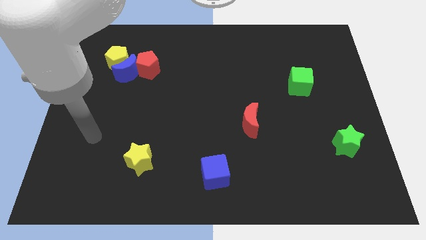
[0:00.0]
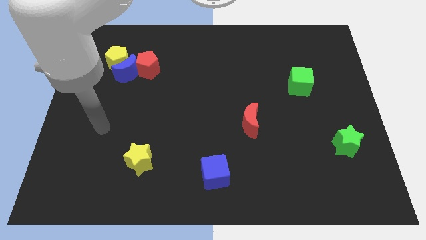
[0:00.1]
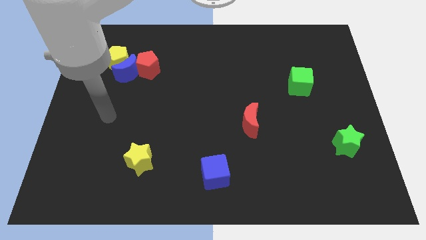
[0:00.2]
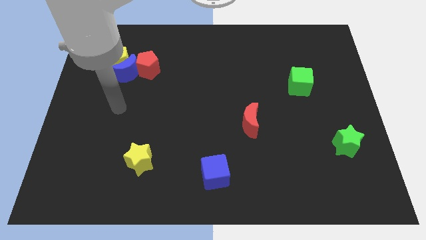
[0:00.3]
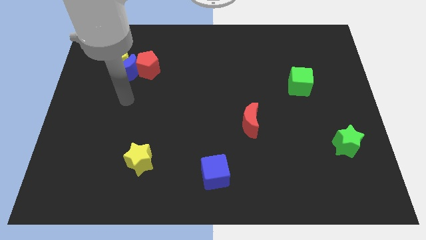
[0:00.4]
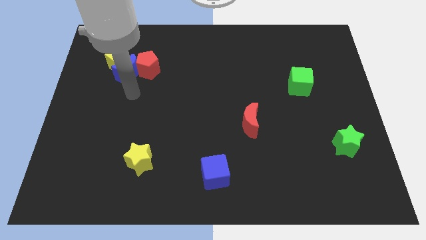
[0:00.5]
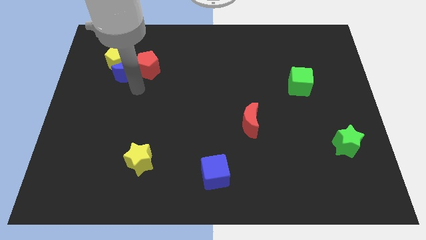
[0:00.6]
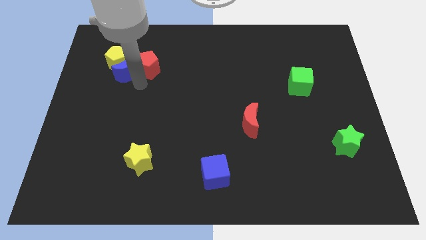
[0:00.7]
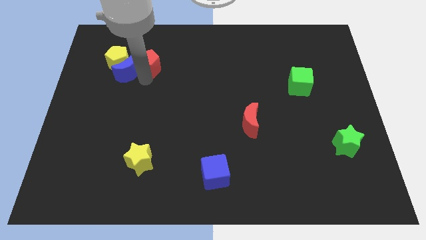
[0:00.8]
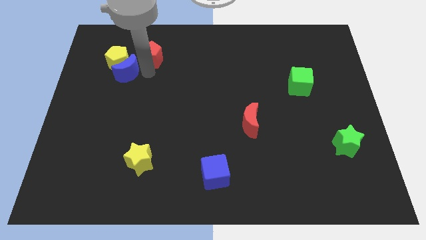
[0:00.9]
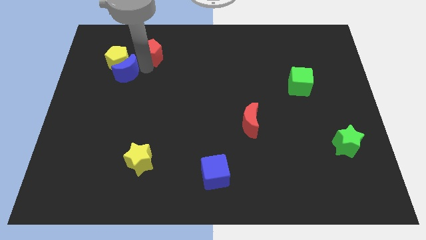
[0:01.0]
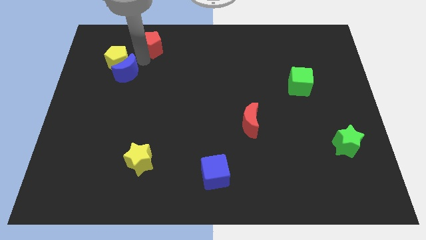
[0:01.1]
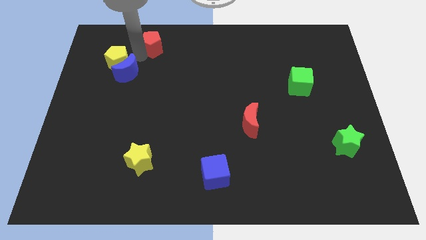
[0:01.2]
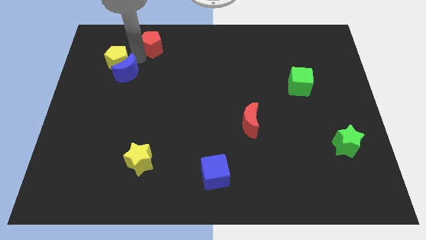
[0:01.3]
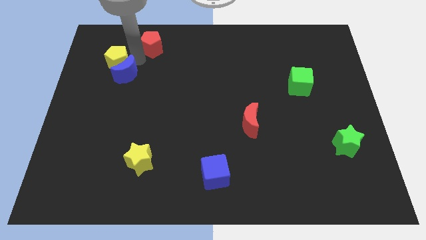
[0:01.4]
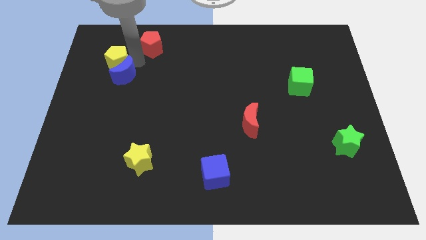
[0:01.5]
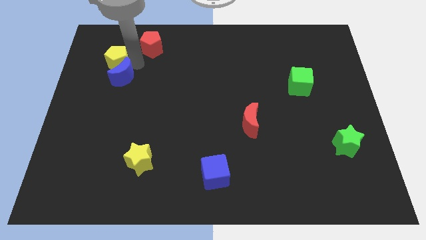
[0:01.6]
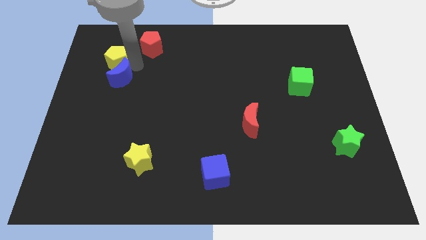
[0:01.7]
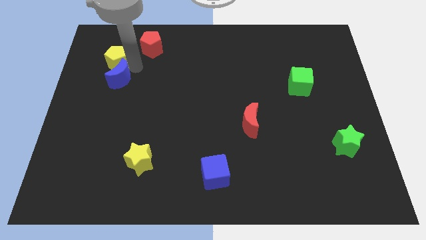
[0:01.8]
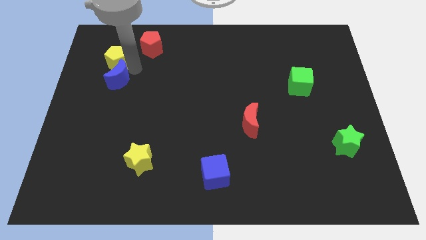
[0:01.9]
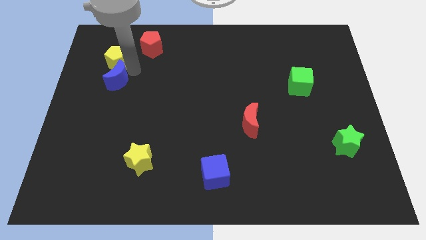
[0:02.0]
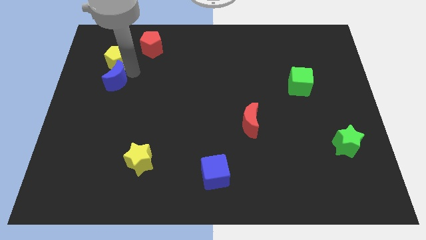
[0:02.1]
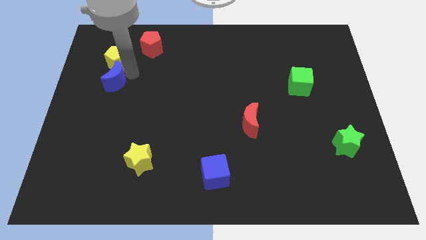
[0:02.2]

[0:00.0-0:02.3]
pull the blue moon apart from the yellow pentagon and red pentagon

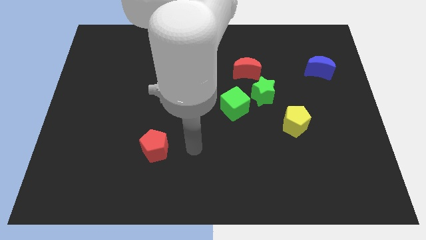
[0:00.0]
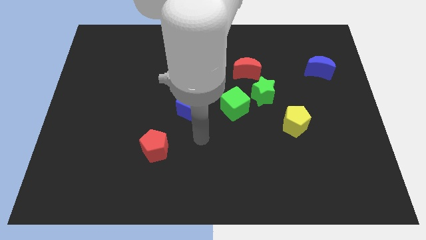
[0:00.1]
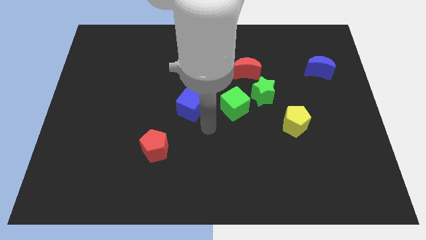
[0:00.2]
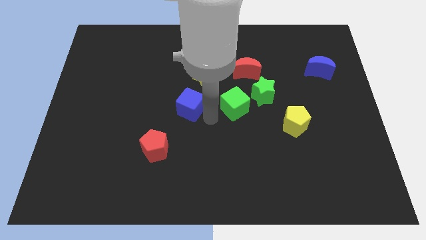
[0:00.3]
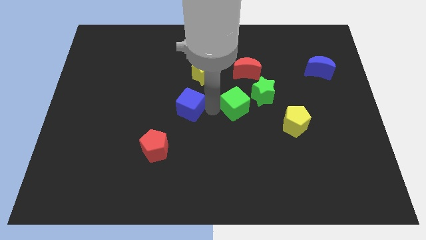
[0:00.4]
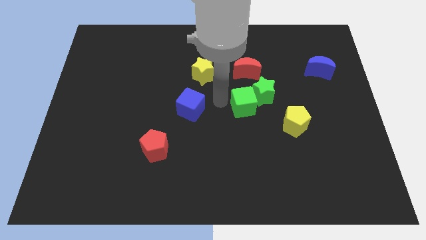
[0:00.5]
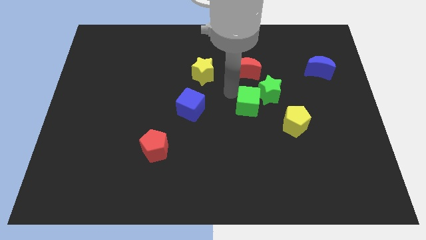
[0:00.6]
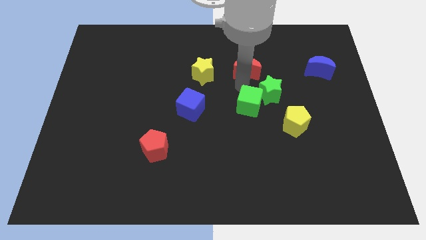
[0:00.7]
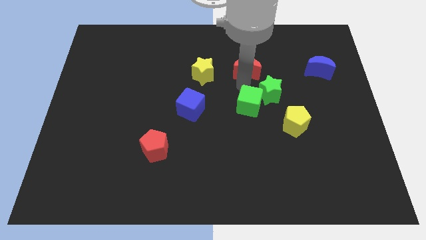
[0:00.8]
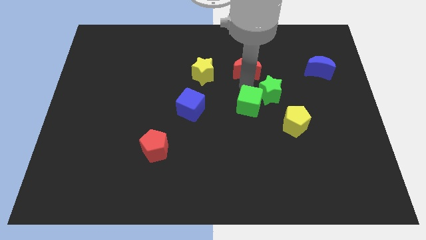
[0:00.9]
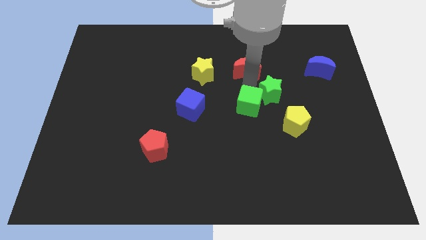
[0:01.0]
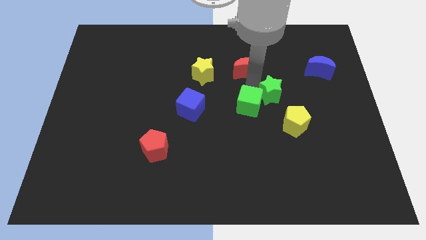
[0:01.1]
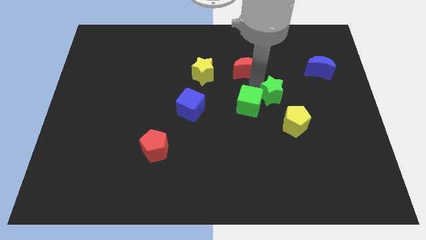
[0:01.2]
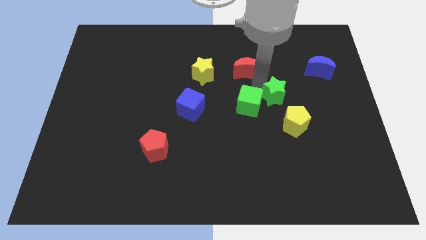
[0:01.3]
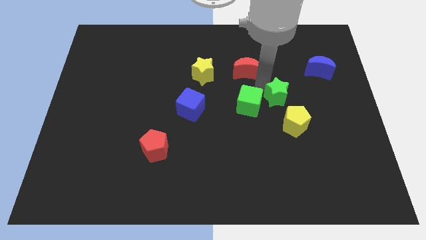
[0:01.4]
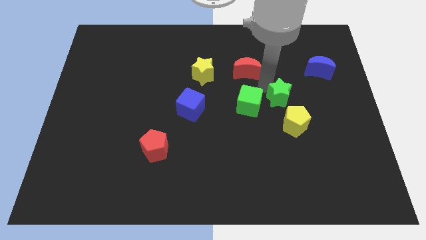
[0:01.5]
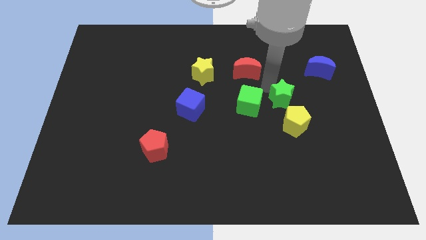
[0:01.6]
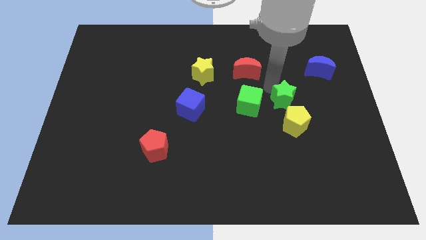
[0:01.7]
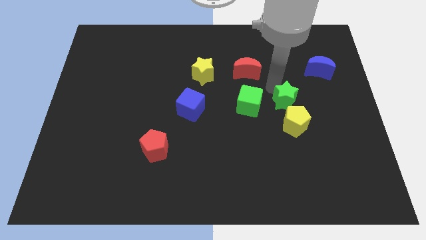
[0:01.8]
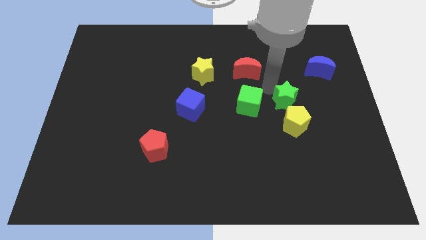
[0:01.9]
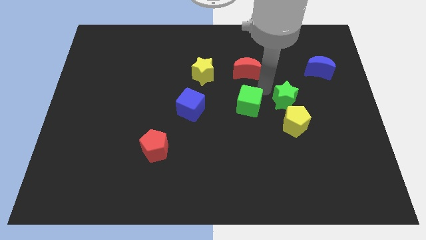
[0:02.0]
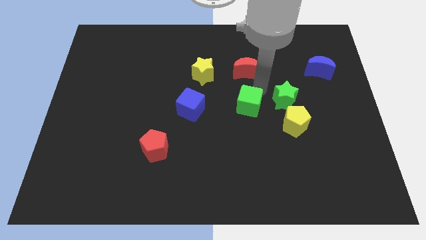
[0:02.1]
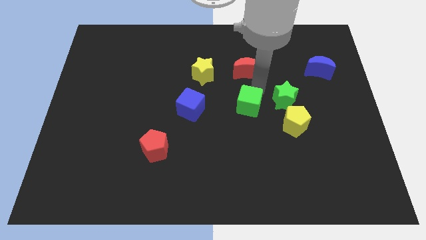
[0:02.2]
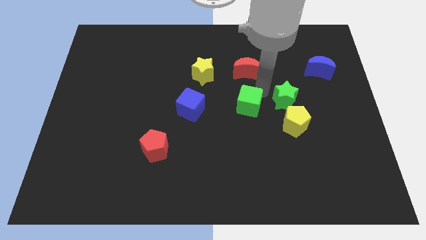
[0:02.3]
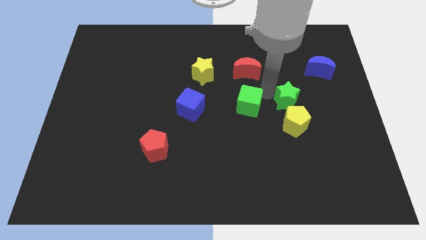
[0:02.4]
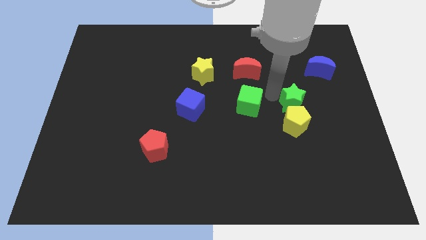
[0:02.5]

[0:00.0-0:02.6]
separate the green star from the green cube and red moon

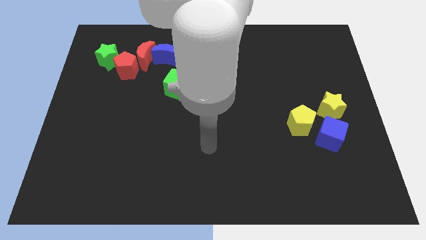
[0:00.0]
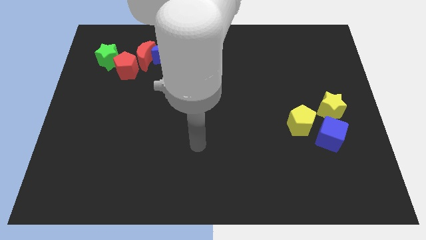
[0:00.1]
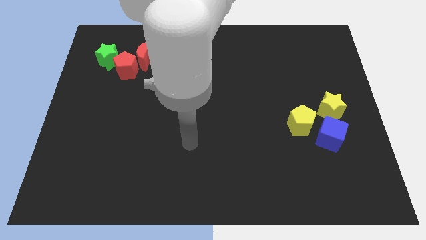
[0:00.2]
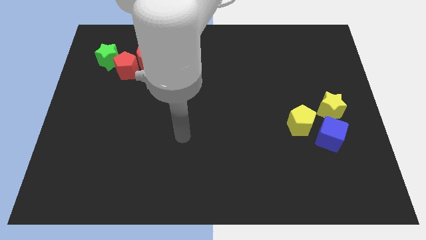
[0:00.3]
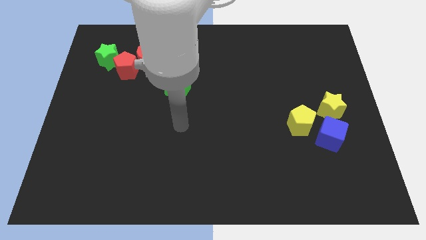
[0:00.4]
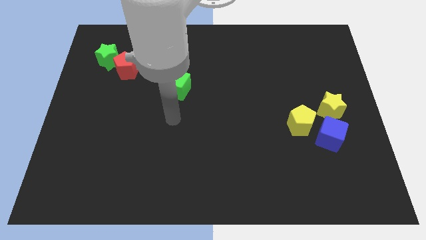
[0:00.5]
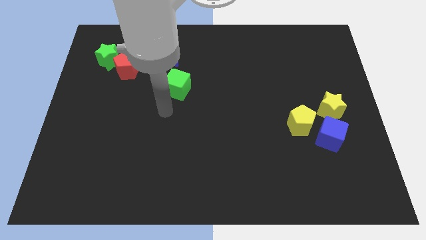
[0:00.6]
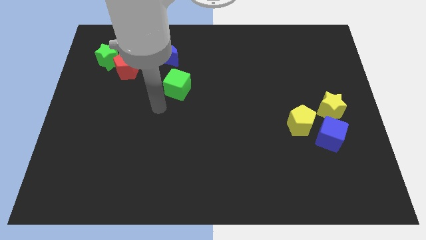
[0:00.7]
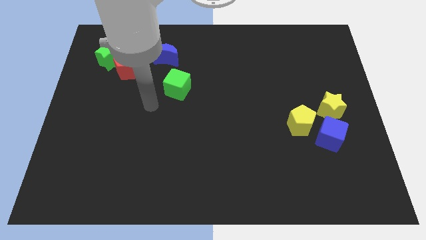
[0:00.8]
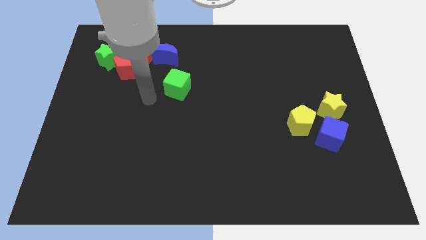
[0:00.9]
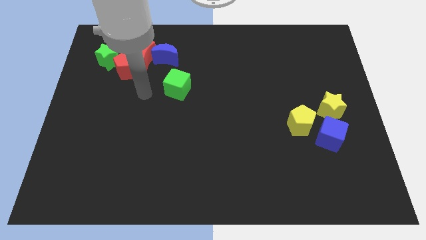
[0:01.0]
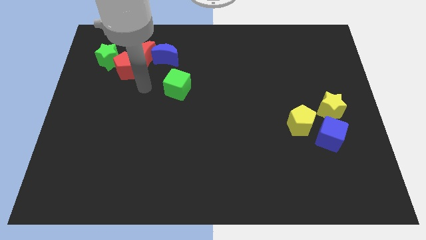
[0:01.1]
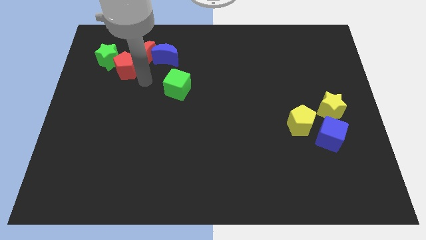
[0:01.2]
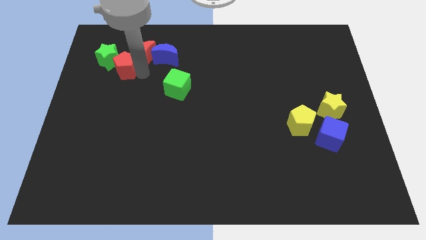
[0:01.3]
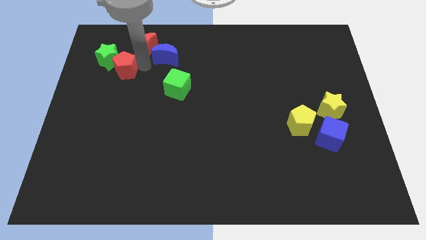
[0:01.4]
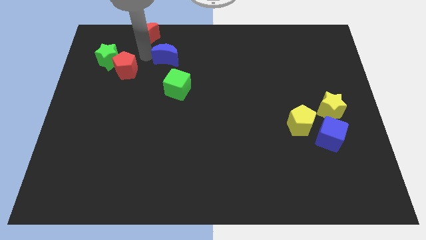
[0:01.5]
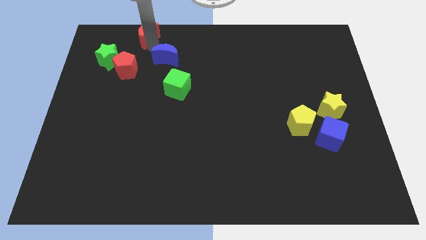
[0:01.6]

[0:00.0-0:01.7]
separate the blue moon from the red moon

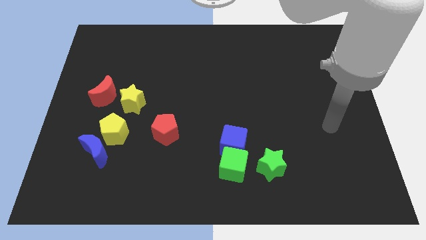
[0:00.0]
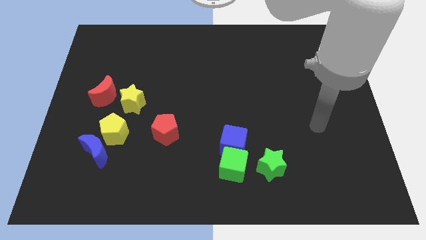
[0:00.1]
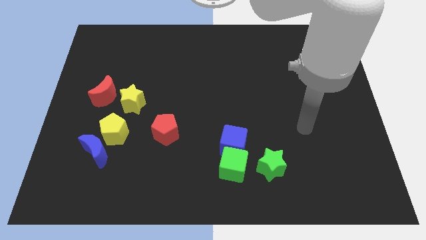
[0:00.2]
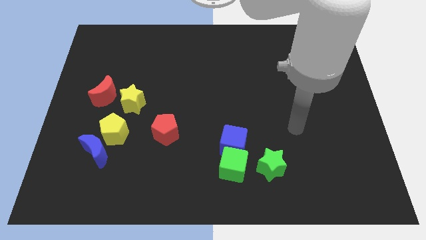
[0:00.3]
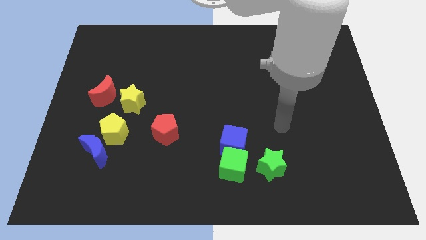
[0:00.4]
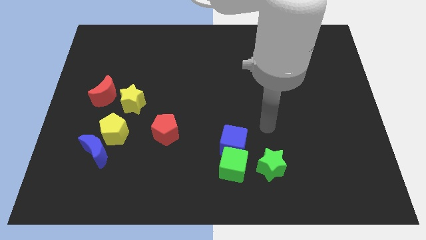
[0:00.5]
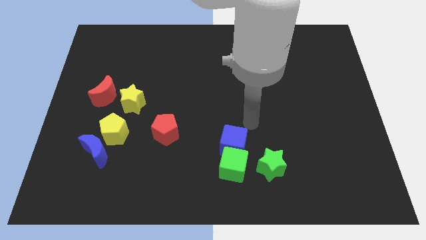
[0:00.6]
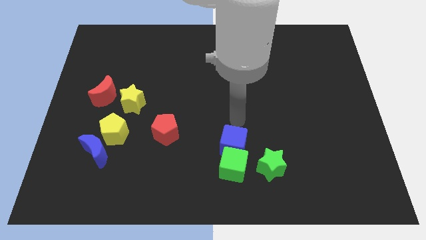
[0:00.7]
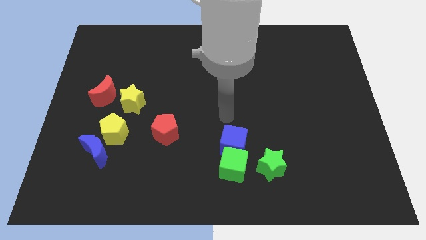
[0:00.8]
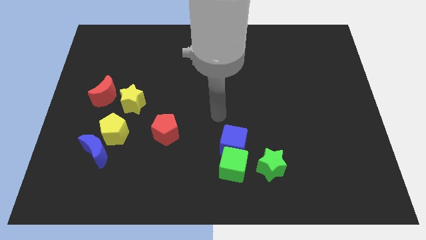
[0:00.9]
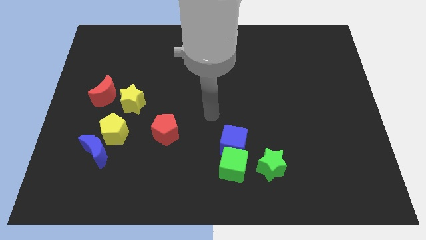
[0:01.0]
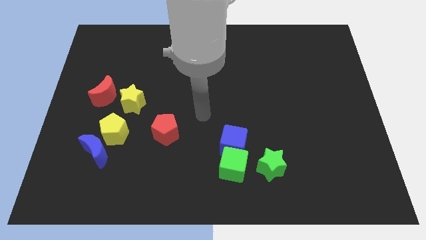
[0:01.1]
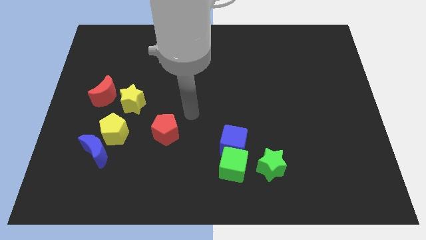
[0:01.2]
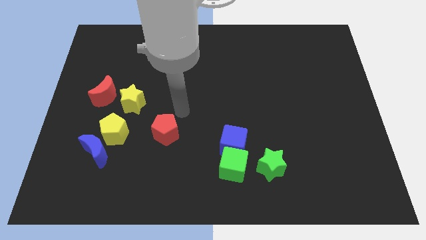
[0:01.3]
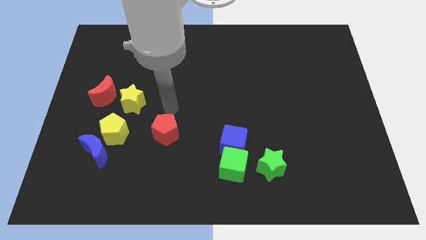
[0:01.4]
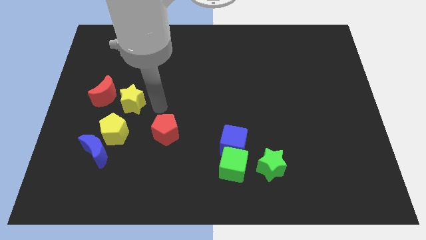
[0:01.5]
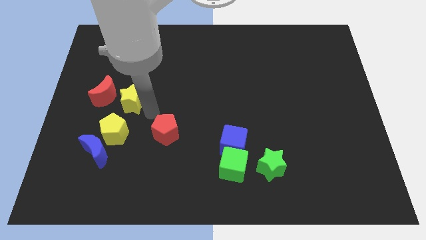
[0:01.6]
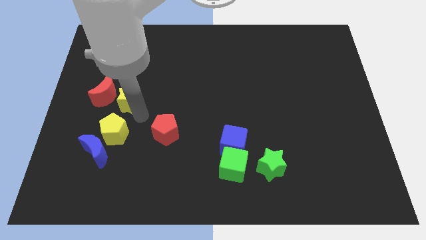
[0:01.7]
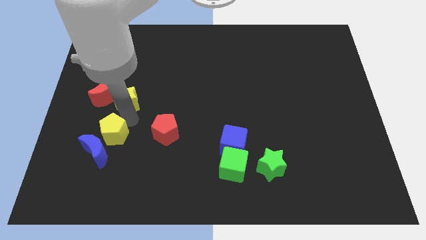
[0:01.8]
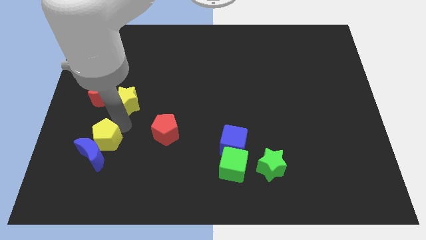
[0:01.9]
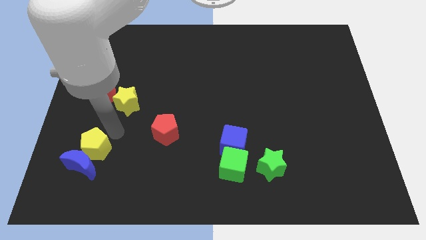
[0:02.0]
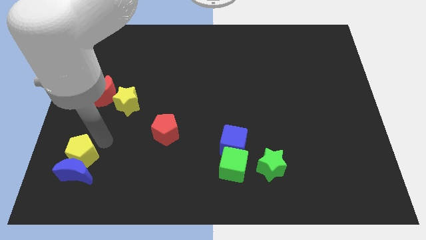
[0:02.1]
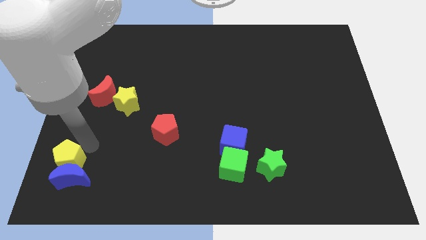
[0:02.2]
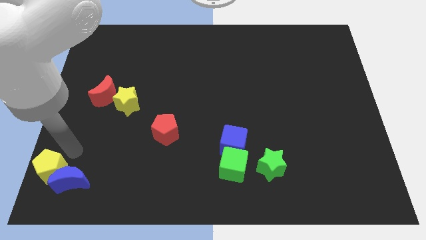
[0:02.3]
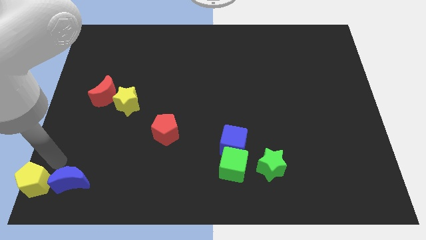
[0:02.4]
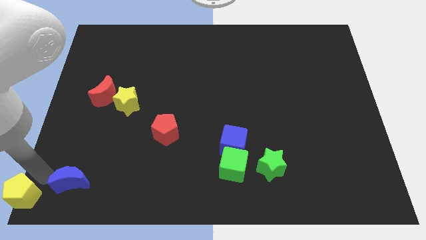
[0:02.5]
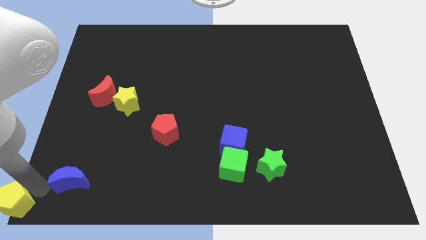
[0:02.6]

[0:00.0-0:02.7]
pull the blue moon apart from the yellow pentagon
